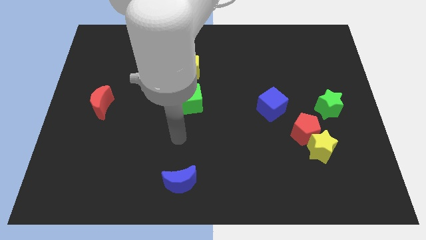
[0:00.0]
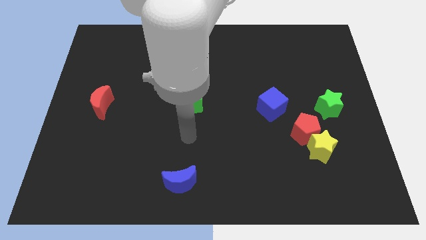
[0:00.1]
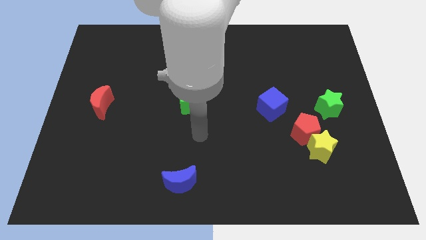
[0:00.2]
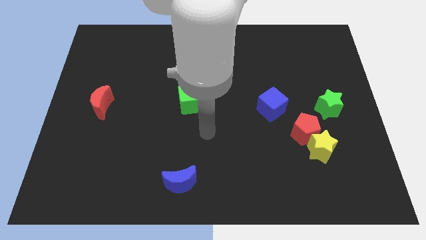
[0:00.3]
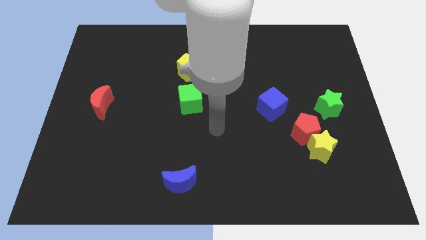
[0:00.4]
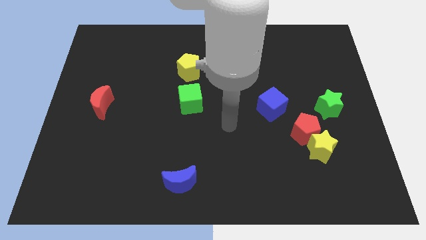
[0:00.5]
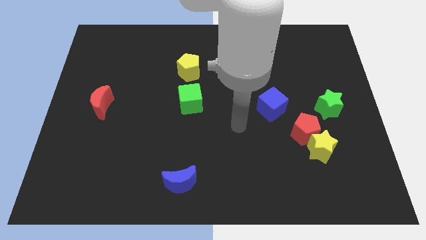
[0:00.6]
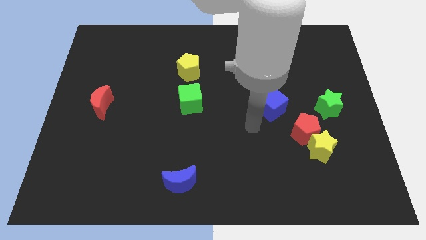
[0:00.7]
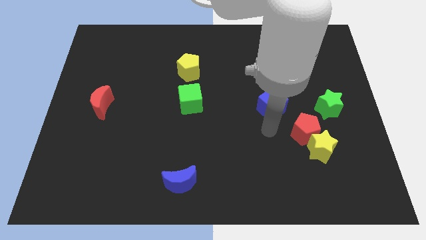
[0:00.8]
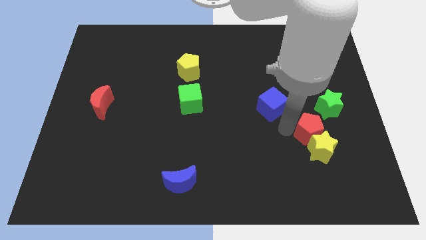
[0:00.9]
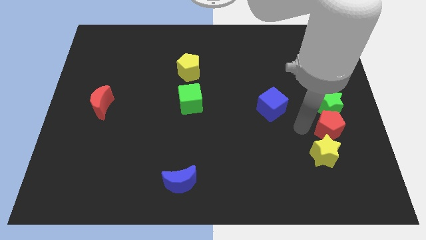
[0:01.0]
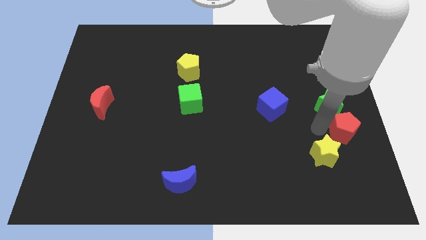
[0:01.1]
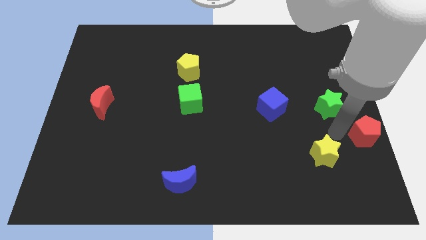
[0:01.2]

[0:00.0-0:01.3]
move the yellow star away from the red pentagon

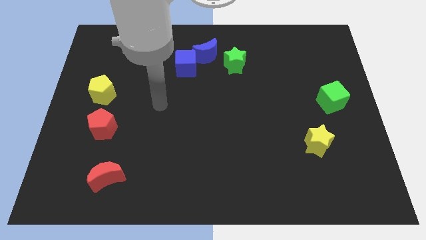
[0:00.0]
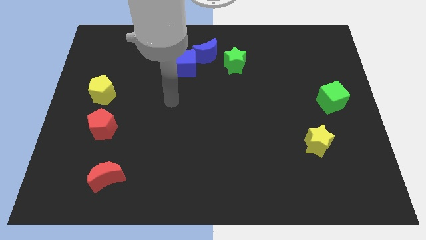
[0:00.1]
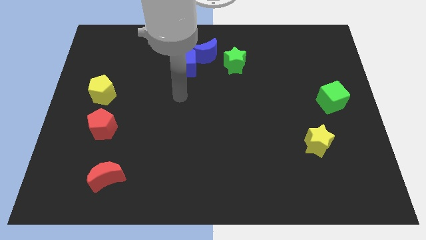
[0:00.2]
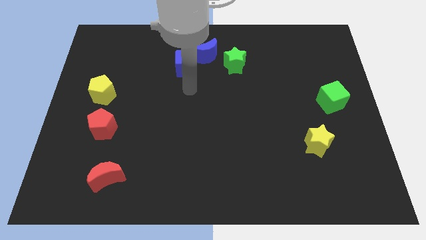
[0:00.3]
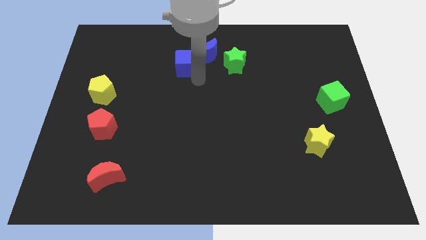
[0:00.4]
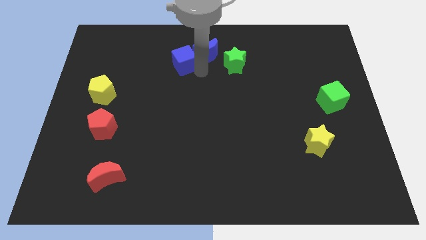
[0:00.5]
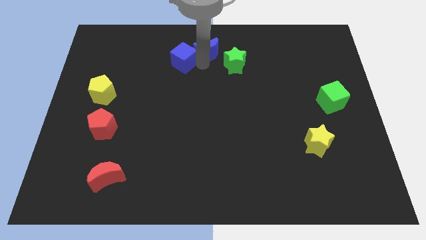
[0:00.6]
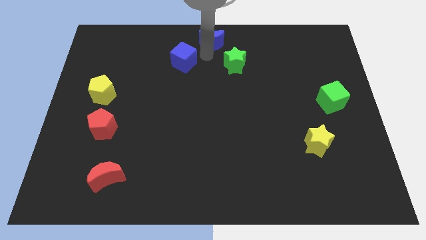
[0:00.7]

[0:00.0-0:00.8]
pull the blue cube apart from the blue moon

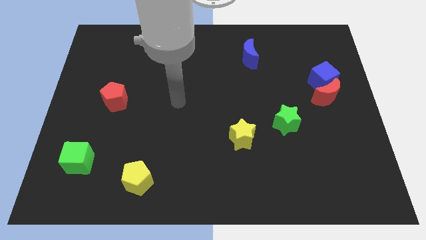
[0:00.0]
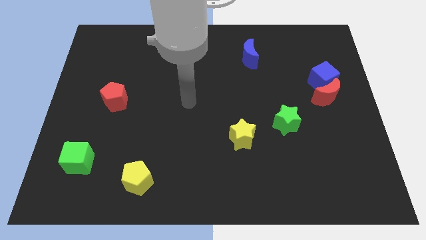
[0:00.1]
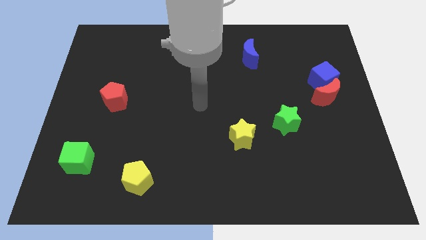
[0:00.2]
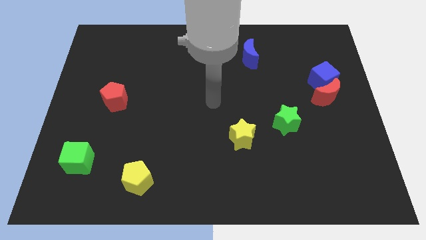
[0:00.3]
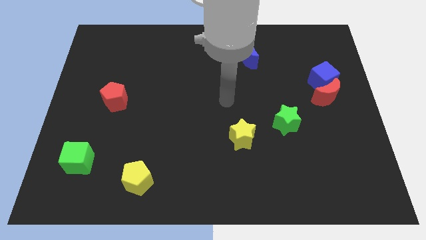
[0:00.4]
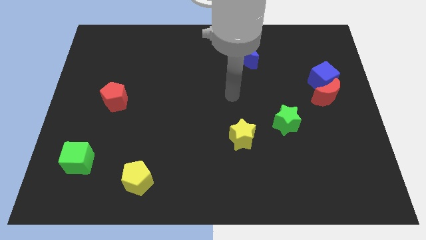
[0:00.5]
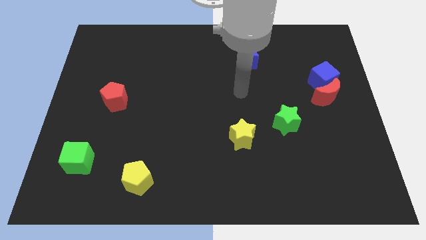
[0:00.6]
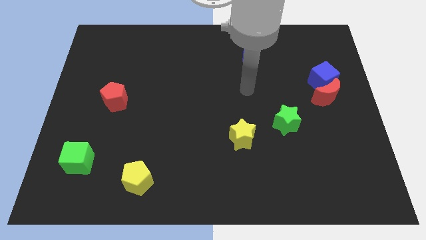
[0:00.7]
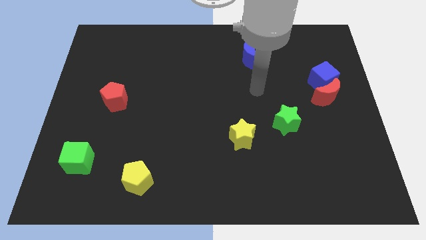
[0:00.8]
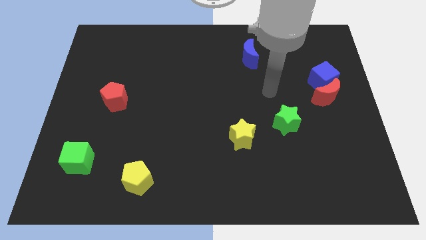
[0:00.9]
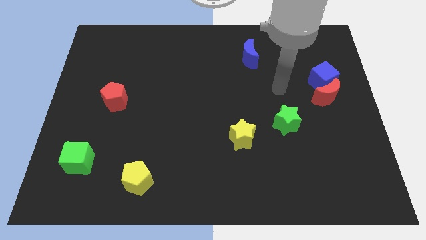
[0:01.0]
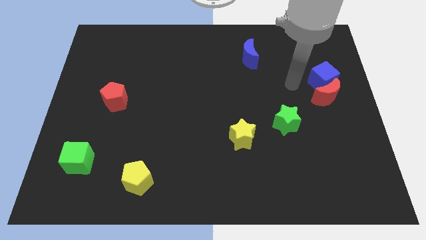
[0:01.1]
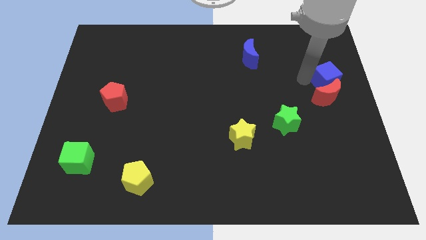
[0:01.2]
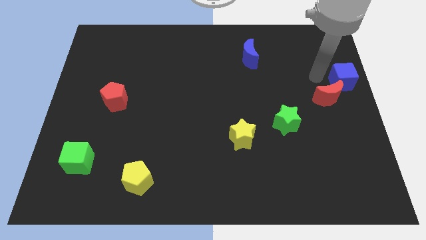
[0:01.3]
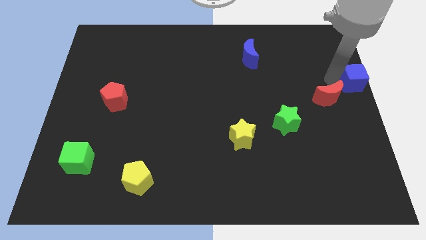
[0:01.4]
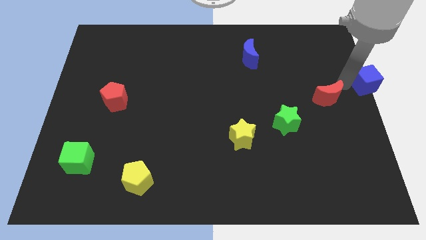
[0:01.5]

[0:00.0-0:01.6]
move the red moon away from the blue cube

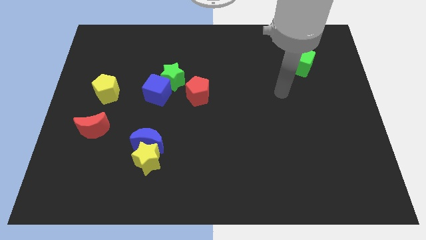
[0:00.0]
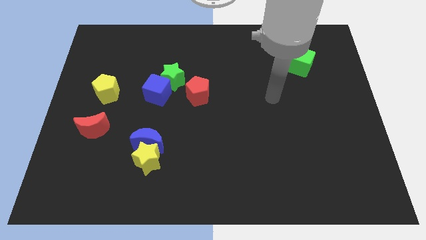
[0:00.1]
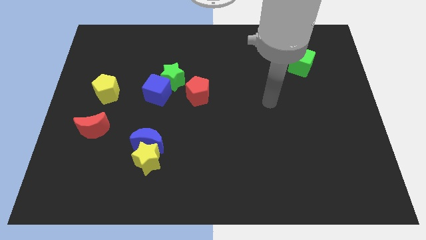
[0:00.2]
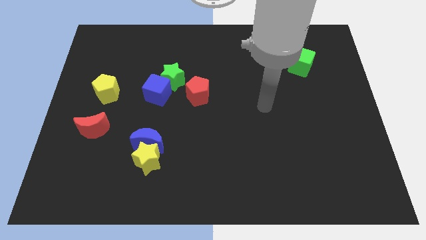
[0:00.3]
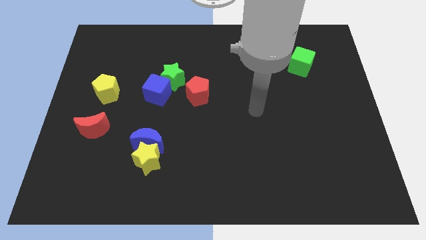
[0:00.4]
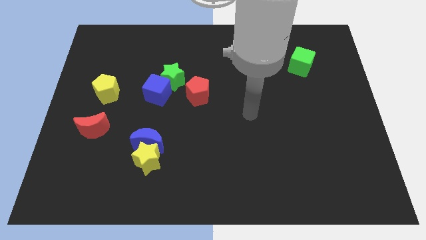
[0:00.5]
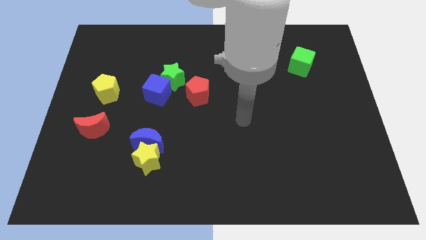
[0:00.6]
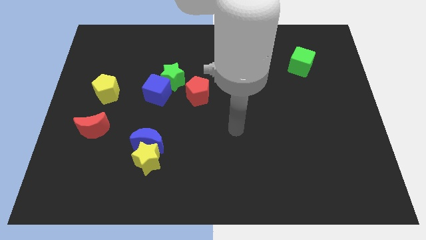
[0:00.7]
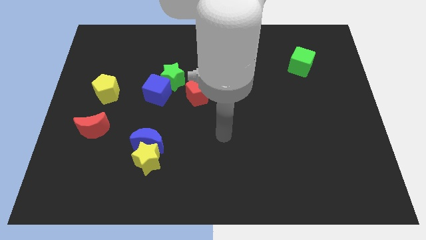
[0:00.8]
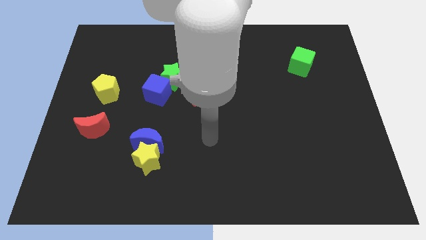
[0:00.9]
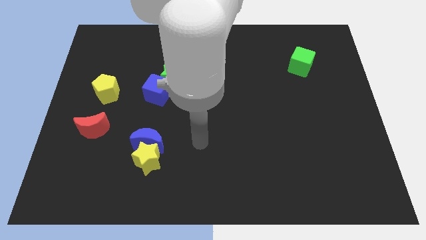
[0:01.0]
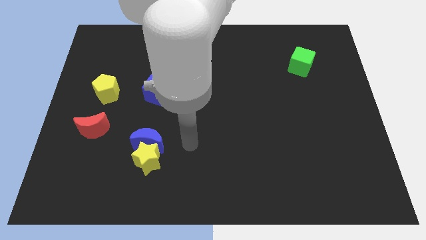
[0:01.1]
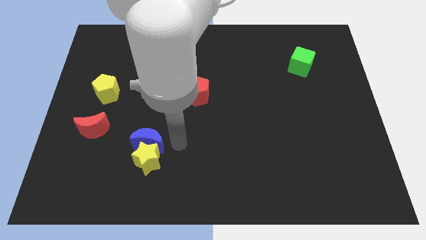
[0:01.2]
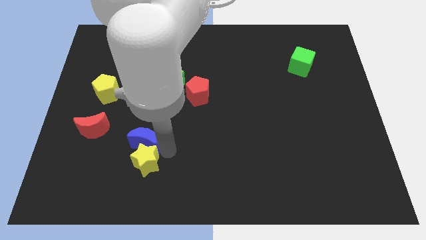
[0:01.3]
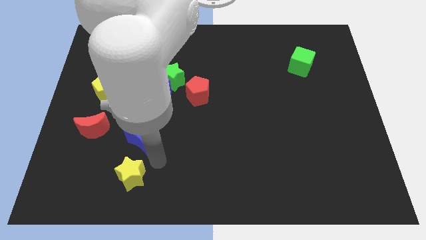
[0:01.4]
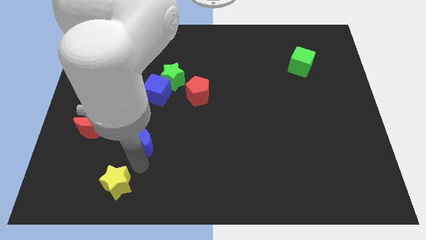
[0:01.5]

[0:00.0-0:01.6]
pull the blue moon apart from the yellow star

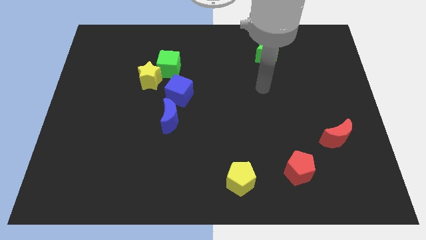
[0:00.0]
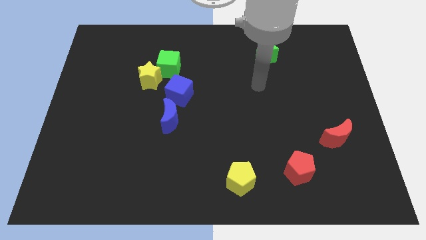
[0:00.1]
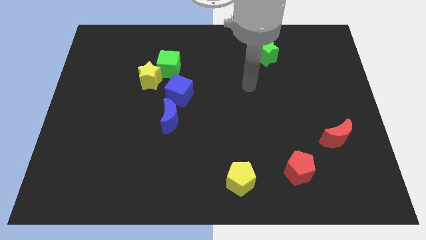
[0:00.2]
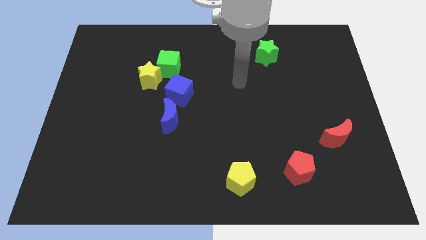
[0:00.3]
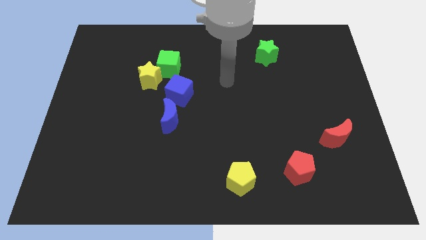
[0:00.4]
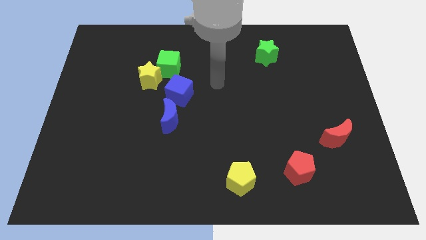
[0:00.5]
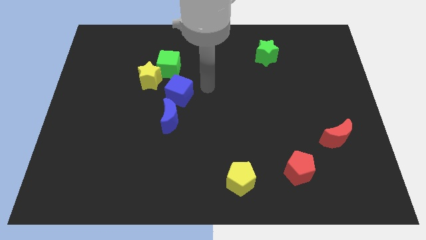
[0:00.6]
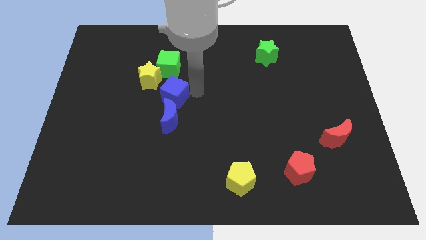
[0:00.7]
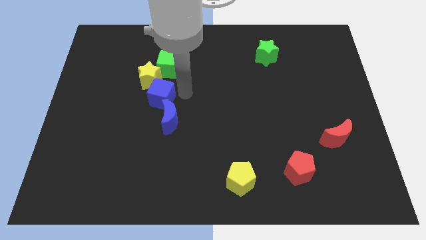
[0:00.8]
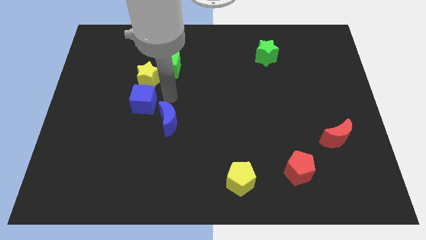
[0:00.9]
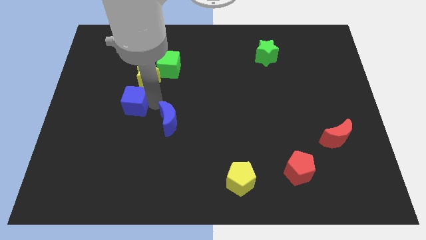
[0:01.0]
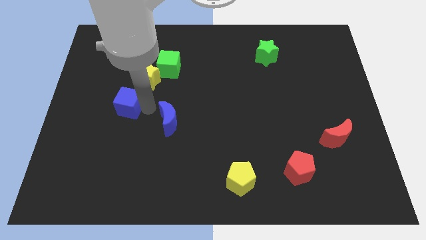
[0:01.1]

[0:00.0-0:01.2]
move the blue moon away from the blue cube

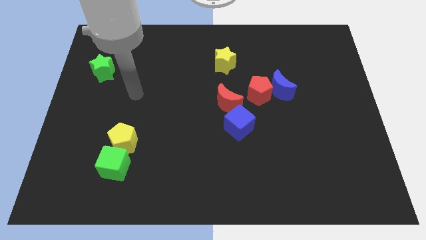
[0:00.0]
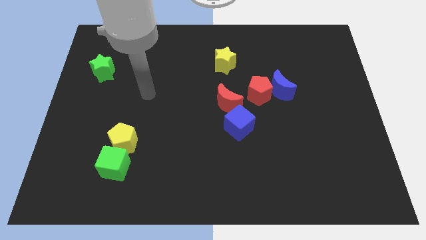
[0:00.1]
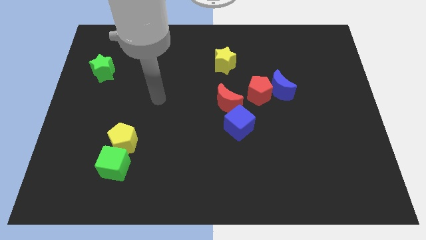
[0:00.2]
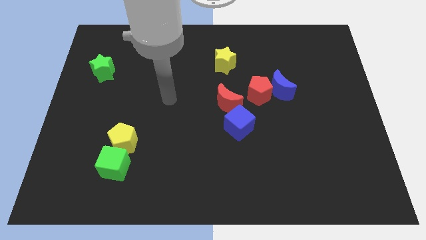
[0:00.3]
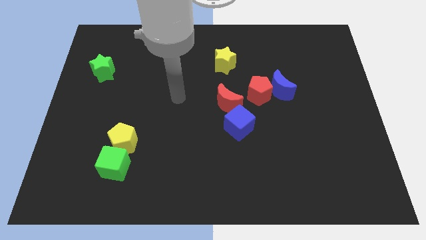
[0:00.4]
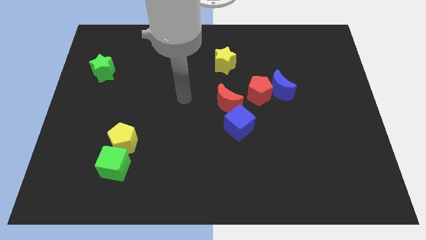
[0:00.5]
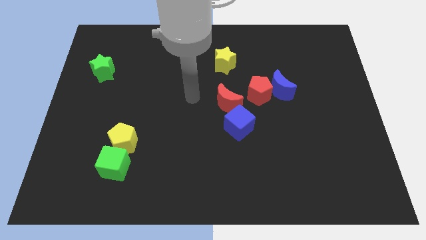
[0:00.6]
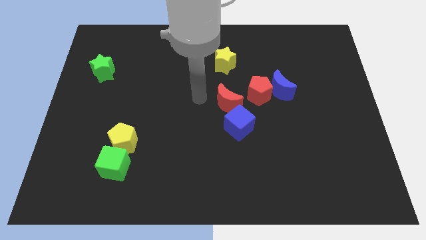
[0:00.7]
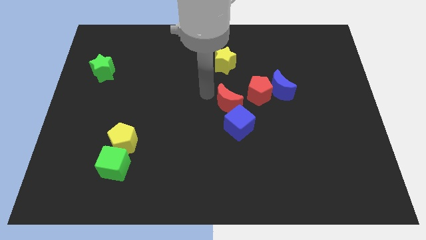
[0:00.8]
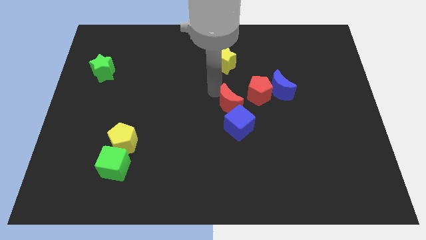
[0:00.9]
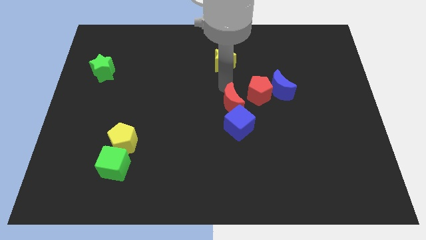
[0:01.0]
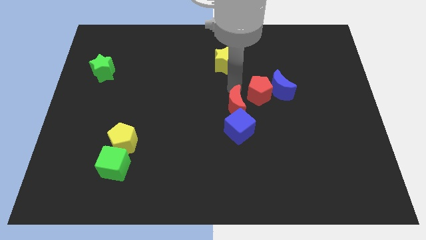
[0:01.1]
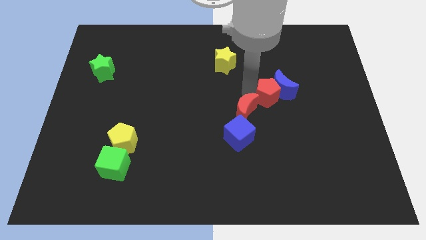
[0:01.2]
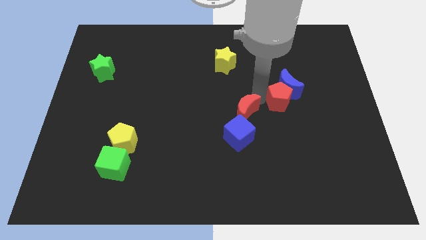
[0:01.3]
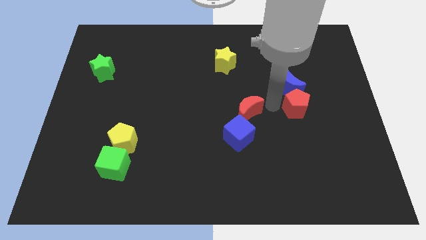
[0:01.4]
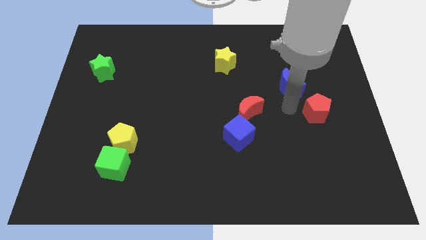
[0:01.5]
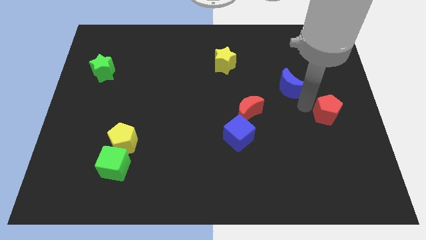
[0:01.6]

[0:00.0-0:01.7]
move the blue moon away from the red pentagon

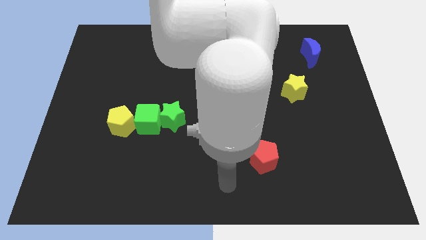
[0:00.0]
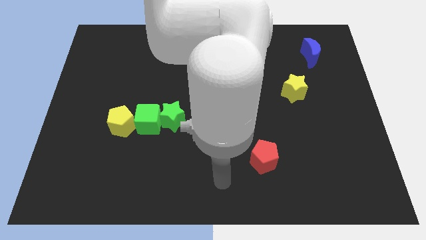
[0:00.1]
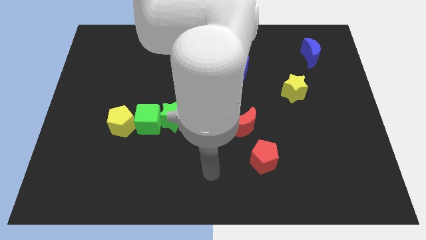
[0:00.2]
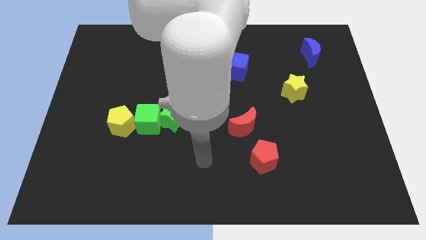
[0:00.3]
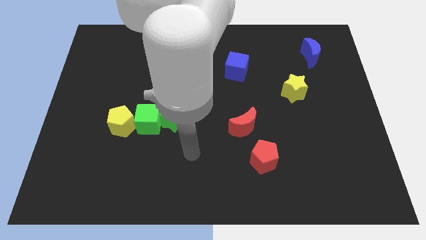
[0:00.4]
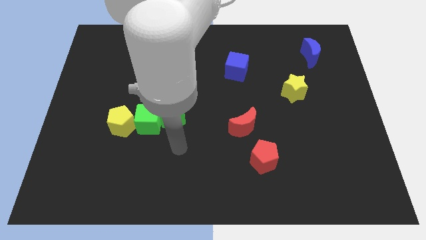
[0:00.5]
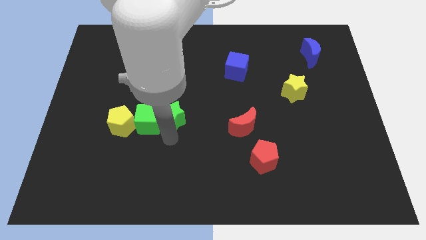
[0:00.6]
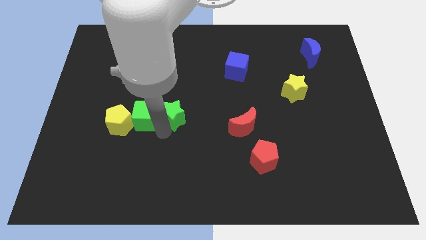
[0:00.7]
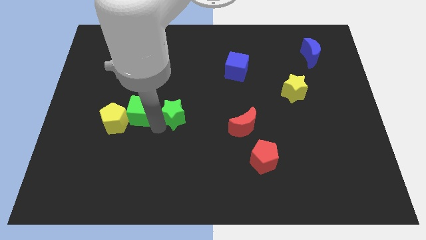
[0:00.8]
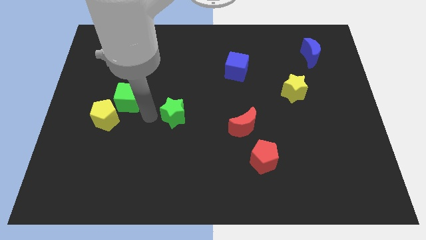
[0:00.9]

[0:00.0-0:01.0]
pull the green star apart from the green cube

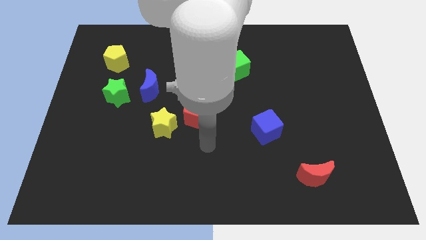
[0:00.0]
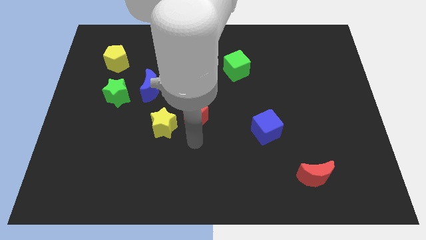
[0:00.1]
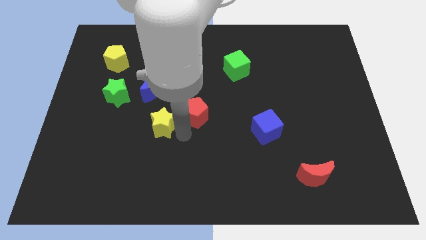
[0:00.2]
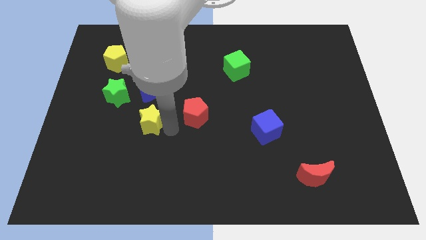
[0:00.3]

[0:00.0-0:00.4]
move the red pentagon away from the yellow star
